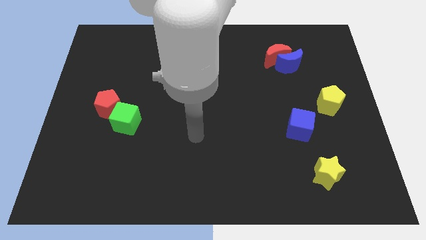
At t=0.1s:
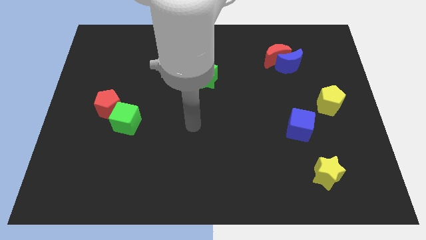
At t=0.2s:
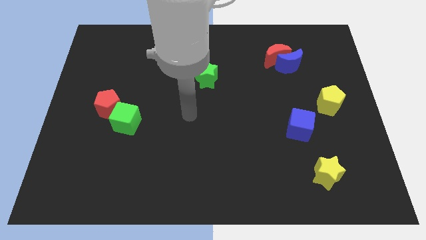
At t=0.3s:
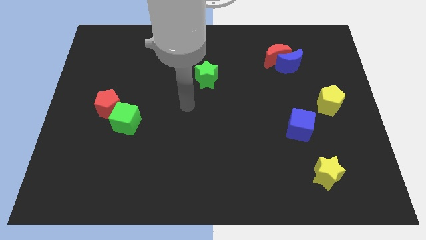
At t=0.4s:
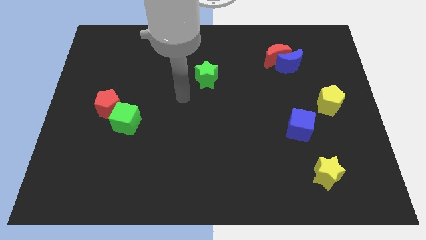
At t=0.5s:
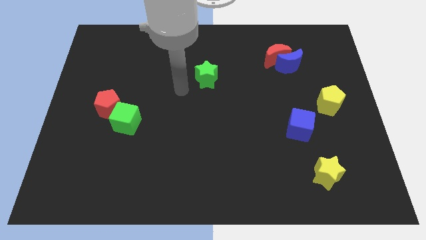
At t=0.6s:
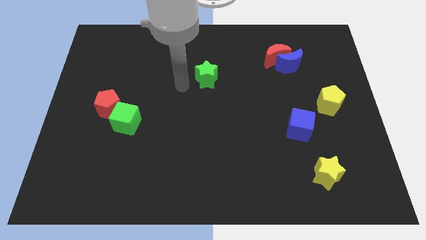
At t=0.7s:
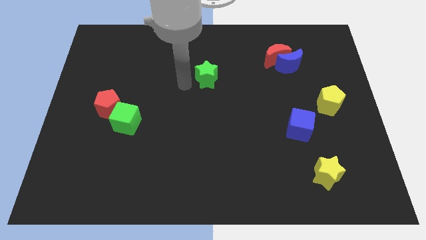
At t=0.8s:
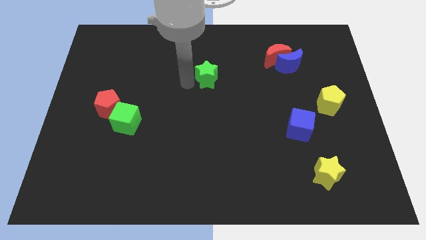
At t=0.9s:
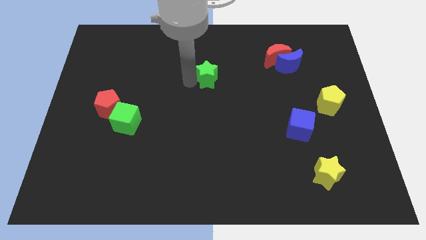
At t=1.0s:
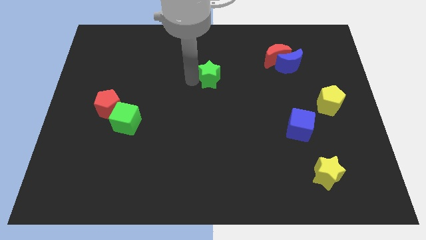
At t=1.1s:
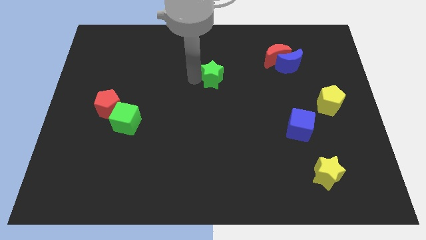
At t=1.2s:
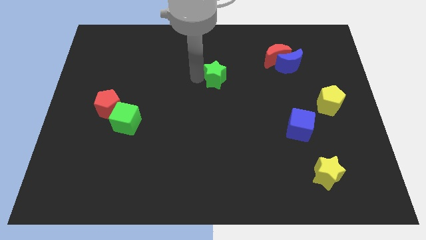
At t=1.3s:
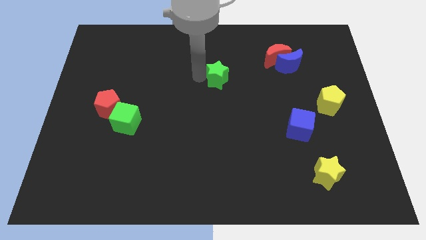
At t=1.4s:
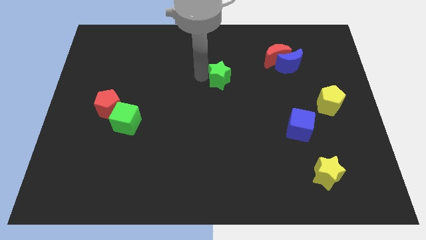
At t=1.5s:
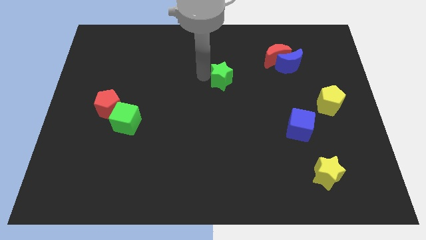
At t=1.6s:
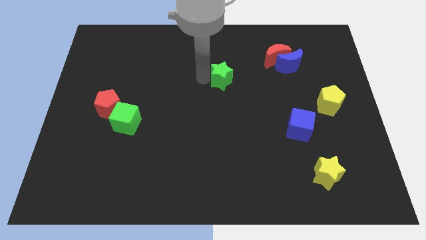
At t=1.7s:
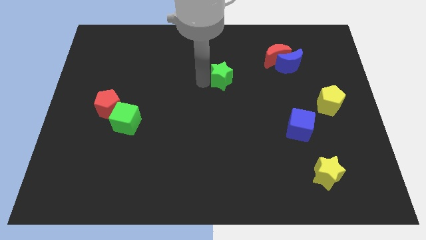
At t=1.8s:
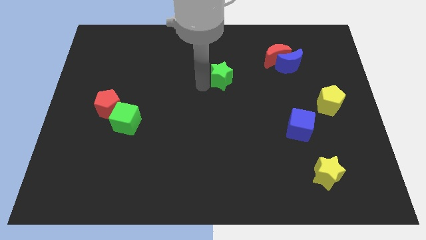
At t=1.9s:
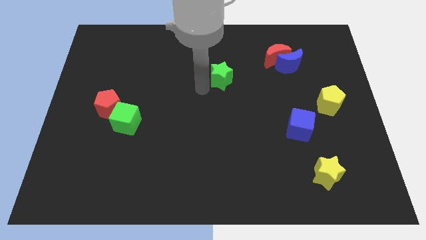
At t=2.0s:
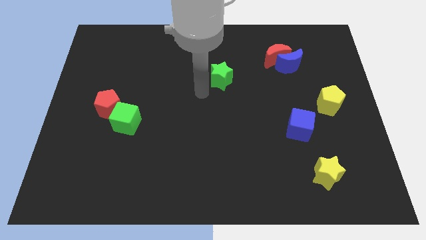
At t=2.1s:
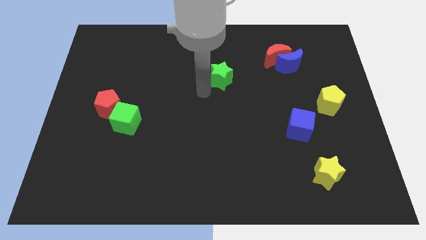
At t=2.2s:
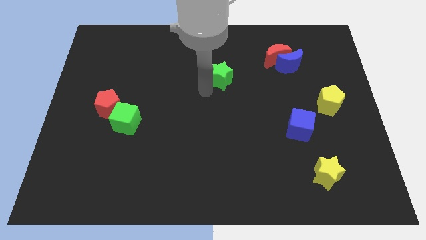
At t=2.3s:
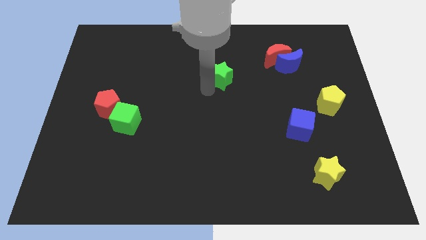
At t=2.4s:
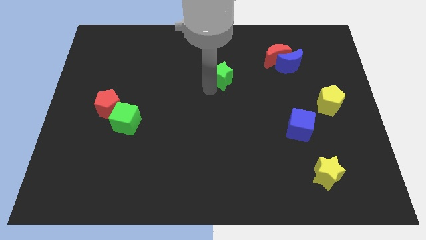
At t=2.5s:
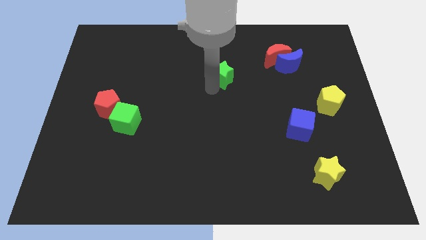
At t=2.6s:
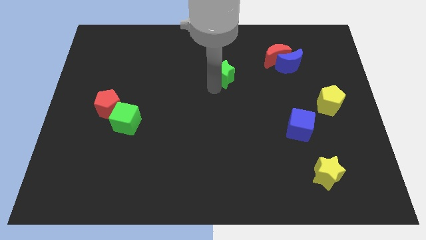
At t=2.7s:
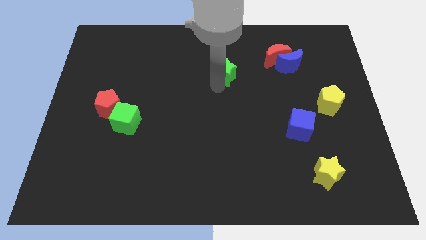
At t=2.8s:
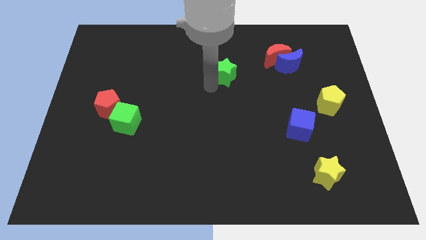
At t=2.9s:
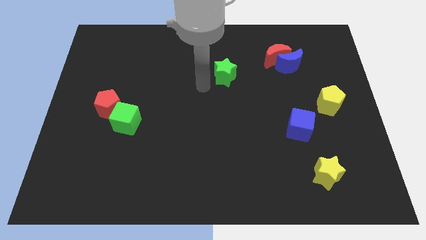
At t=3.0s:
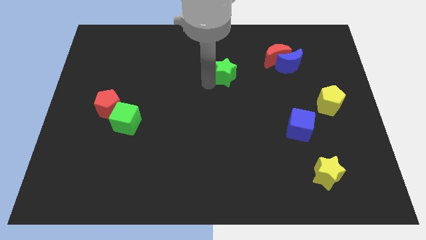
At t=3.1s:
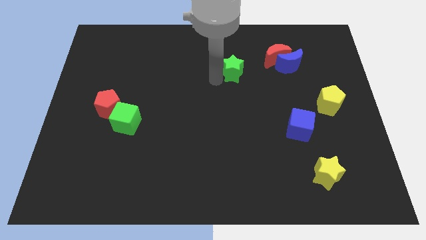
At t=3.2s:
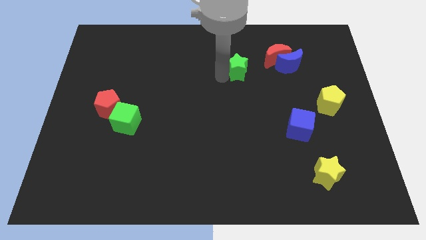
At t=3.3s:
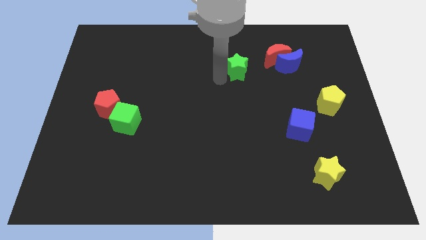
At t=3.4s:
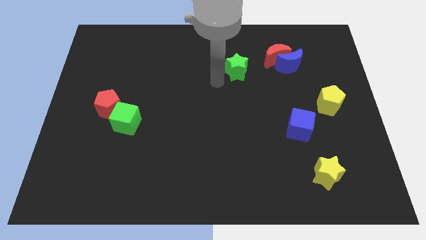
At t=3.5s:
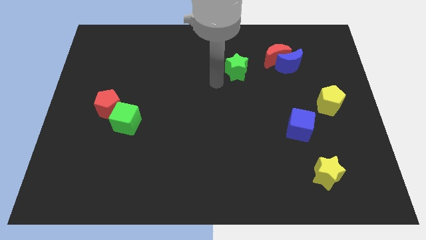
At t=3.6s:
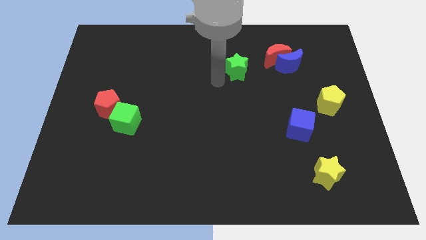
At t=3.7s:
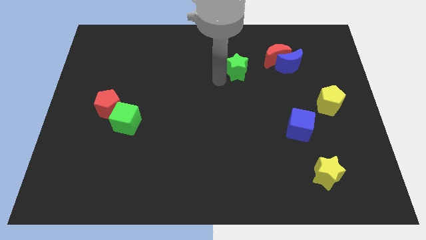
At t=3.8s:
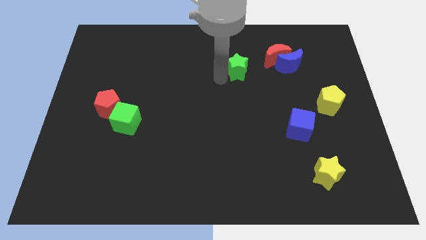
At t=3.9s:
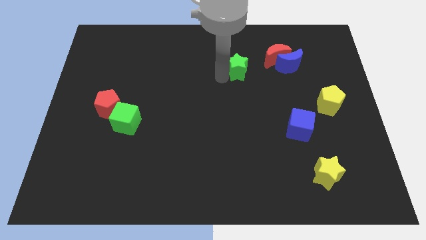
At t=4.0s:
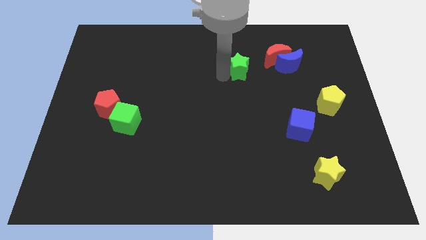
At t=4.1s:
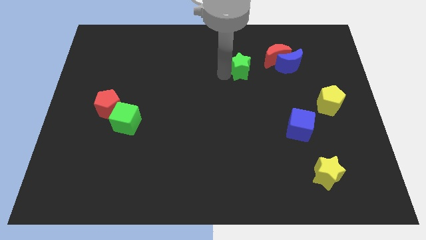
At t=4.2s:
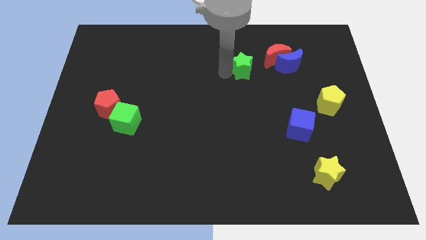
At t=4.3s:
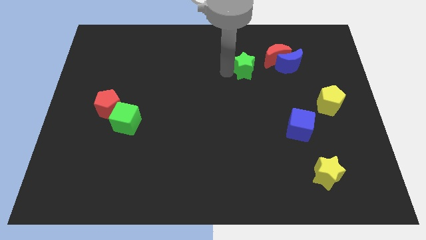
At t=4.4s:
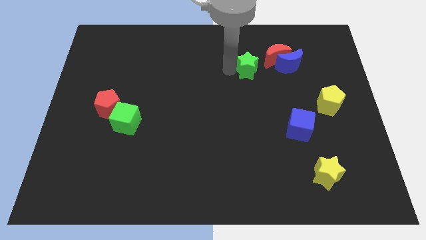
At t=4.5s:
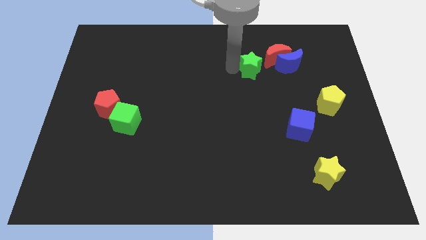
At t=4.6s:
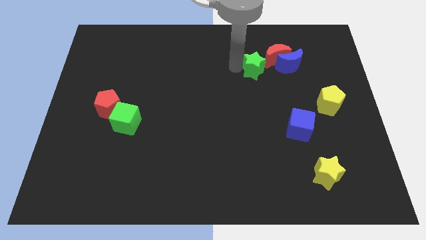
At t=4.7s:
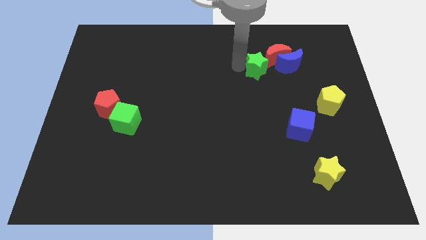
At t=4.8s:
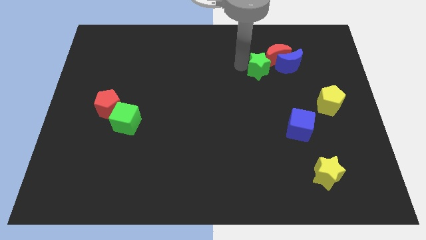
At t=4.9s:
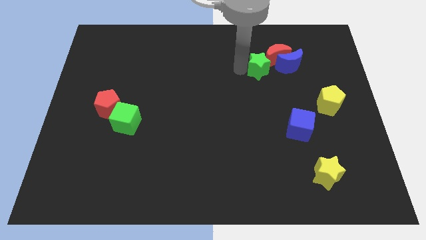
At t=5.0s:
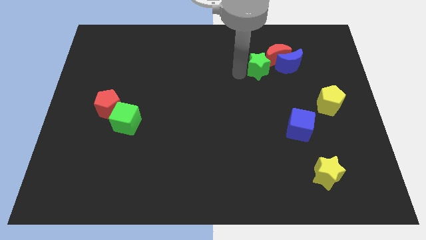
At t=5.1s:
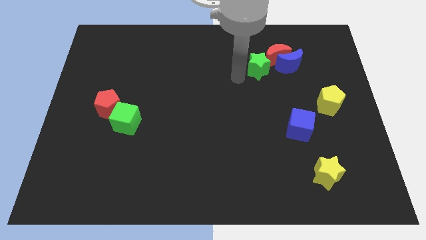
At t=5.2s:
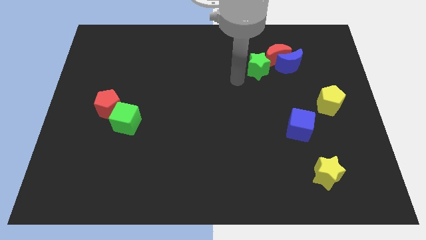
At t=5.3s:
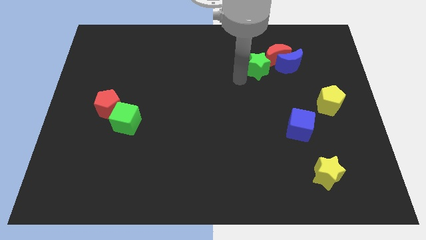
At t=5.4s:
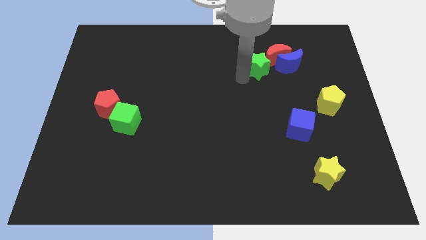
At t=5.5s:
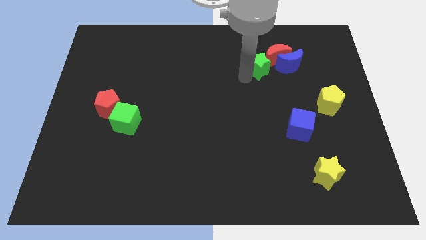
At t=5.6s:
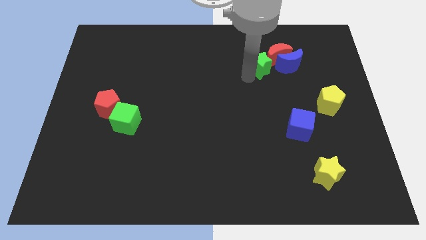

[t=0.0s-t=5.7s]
put the green star to the red moon

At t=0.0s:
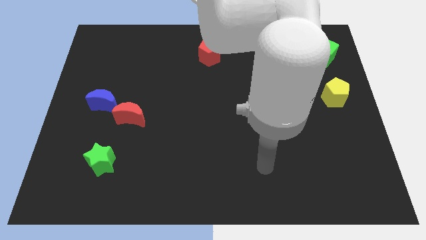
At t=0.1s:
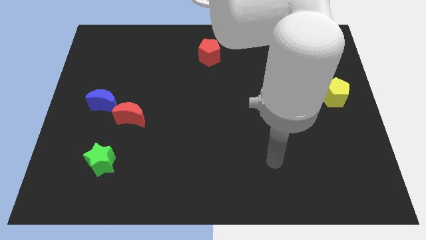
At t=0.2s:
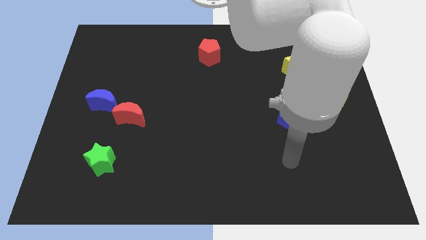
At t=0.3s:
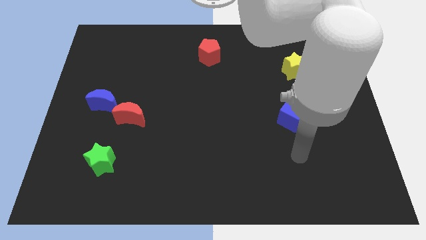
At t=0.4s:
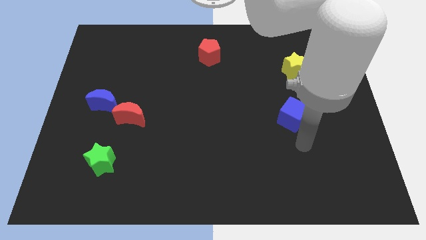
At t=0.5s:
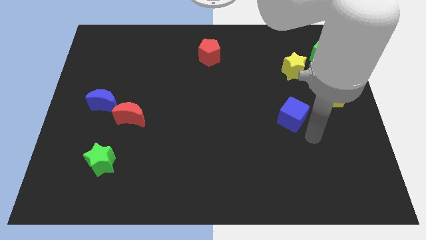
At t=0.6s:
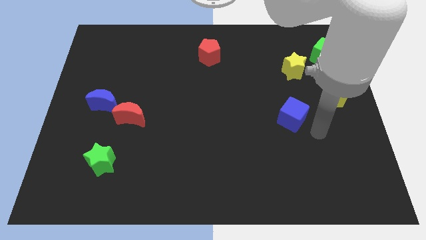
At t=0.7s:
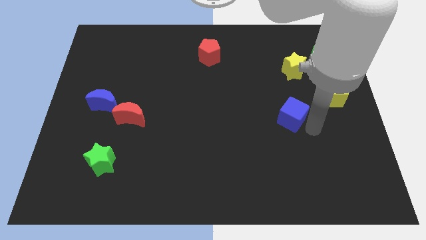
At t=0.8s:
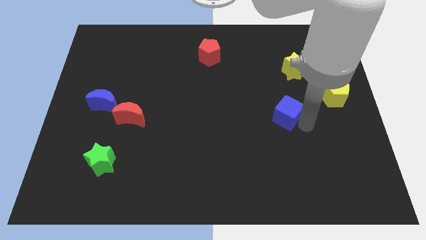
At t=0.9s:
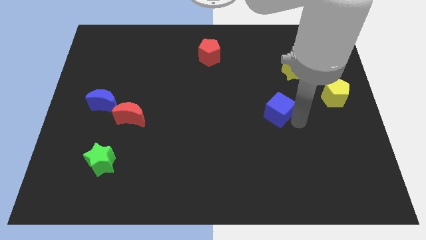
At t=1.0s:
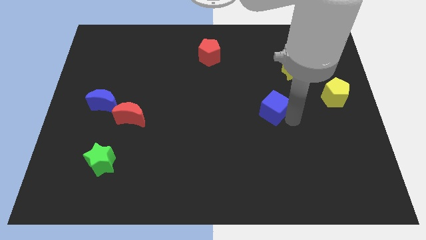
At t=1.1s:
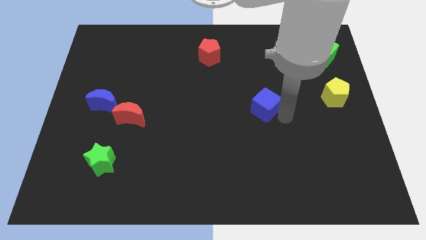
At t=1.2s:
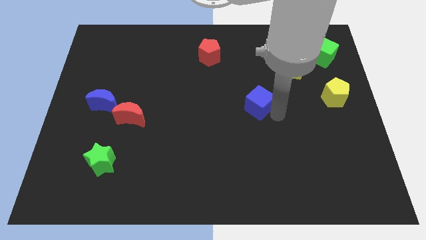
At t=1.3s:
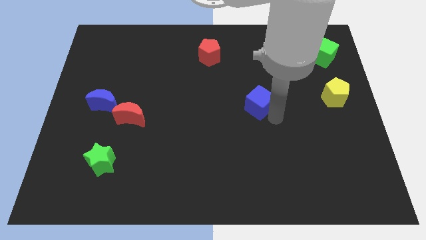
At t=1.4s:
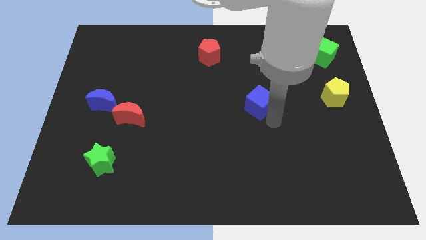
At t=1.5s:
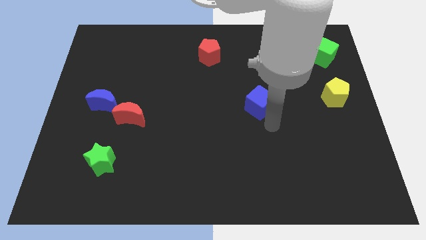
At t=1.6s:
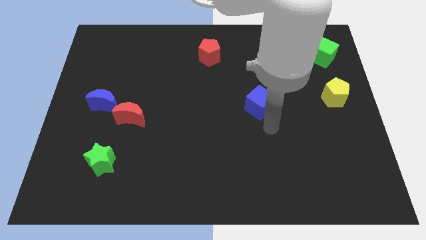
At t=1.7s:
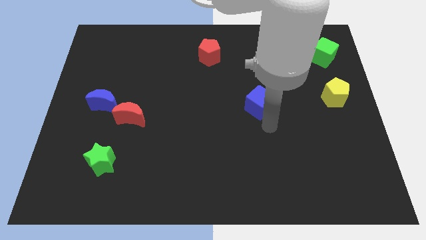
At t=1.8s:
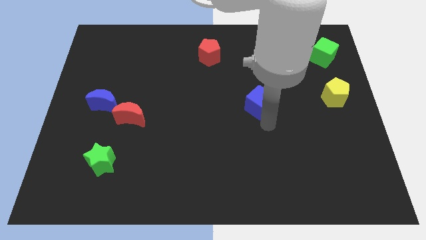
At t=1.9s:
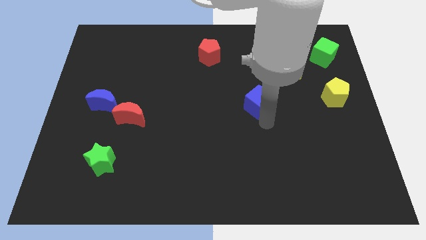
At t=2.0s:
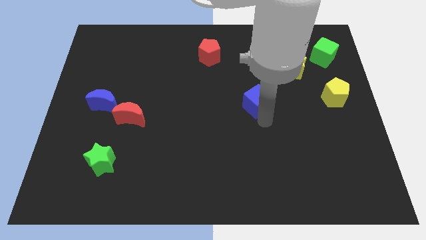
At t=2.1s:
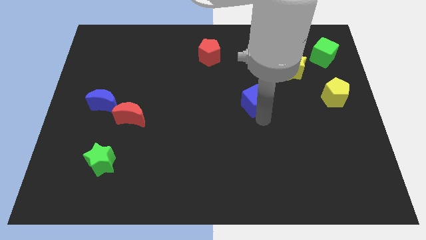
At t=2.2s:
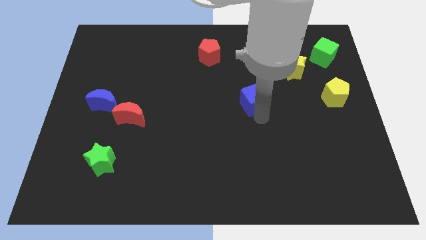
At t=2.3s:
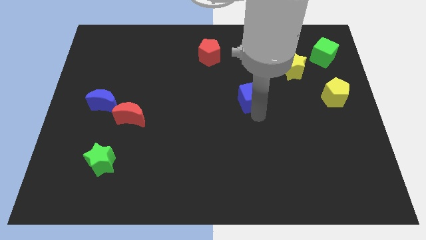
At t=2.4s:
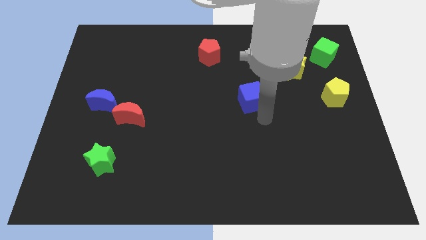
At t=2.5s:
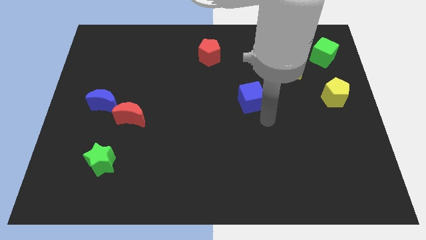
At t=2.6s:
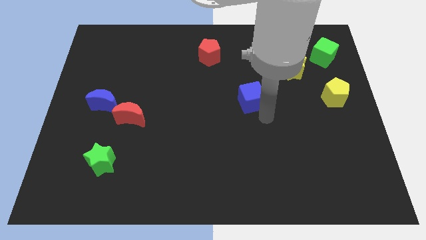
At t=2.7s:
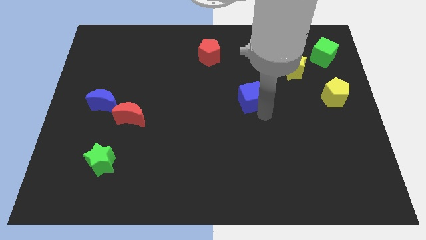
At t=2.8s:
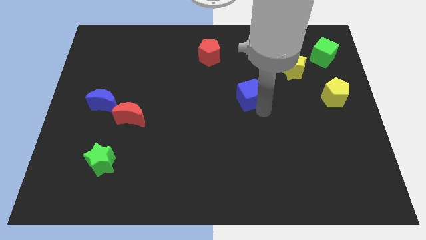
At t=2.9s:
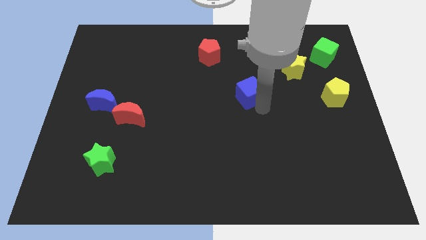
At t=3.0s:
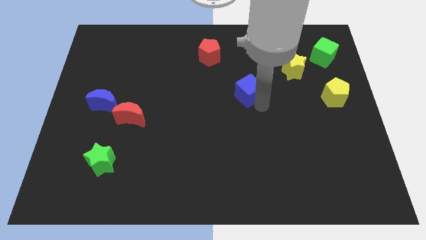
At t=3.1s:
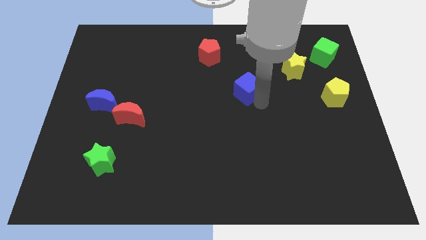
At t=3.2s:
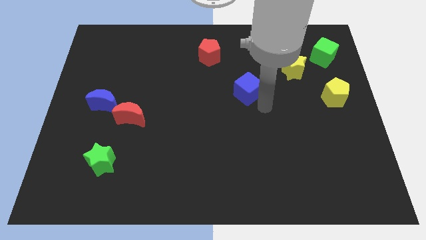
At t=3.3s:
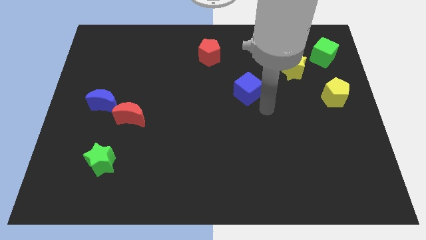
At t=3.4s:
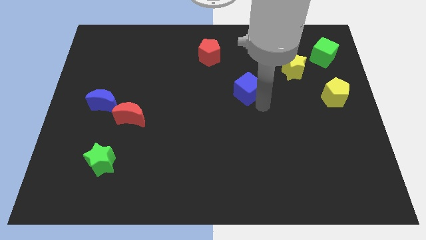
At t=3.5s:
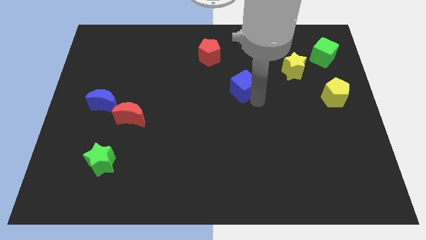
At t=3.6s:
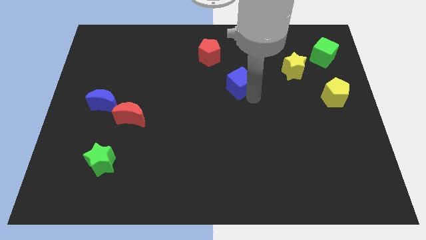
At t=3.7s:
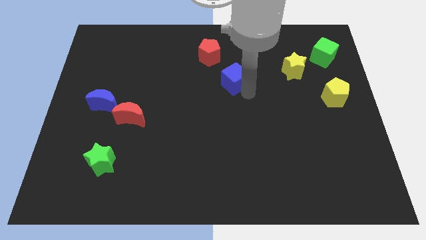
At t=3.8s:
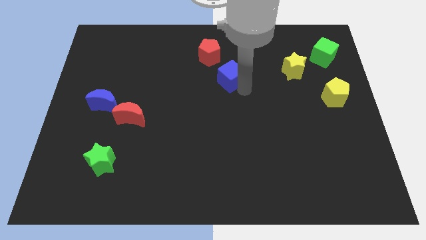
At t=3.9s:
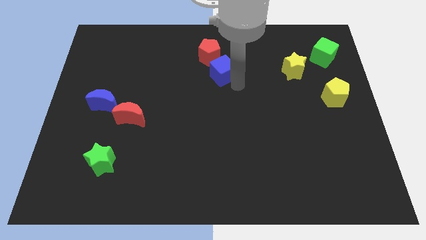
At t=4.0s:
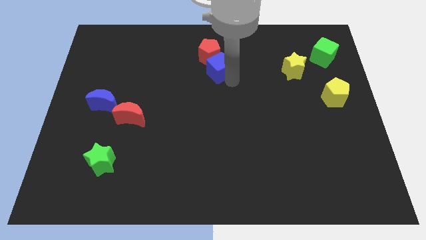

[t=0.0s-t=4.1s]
slide the blue cube to the red pentagon
